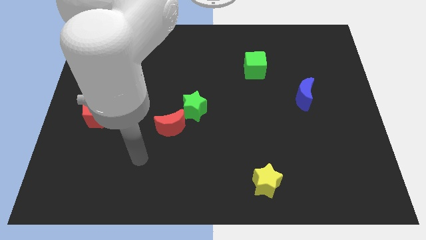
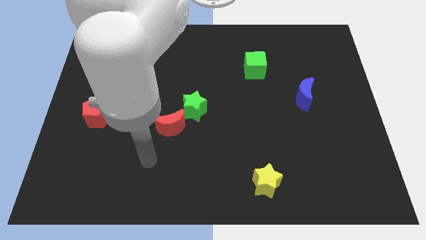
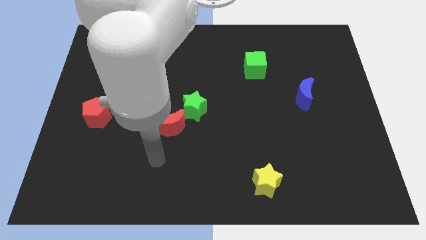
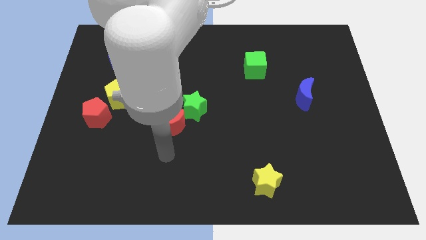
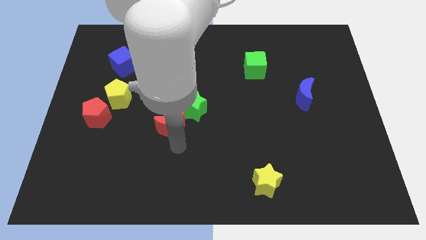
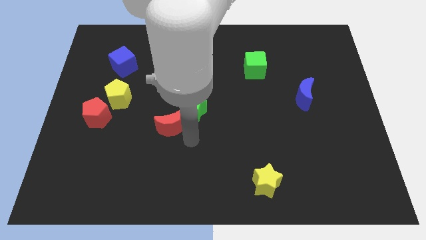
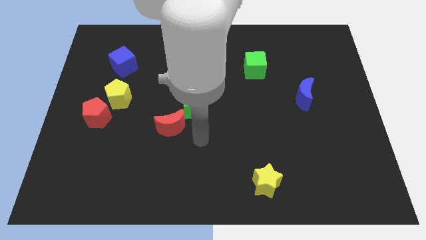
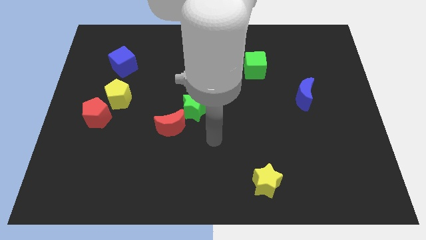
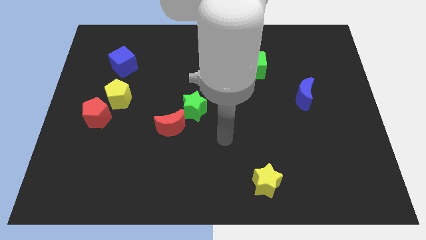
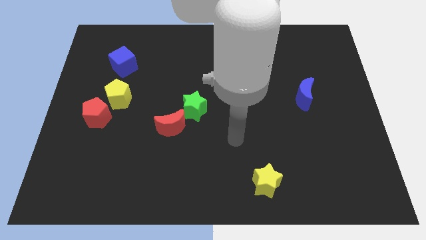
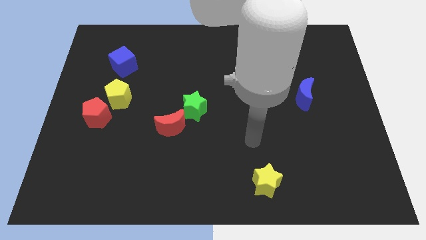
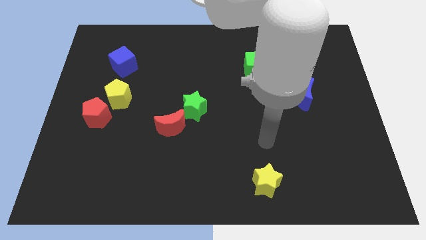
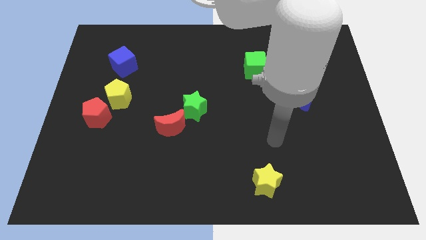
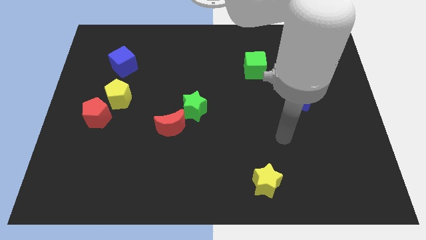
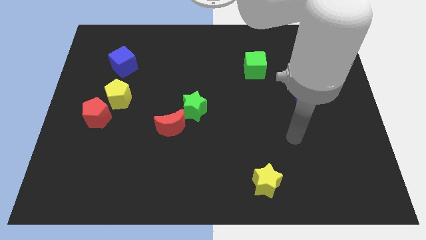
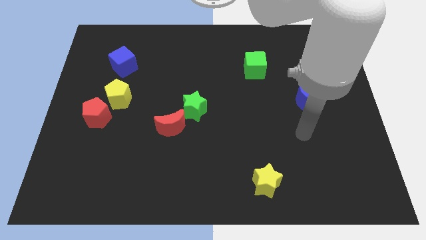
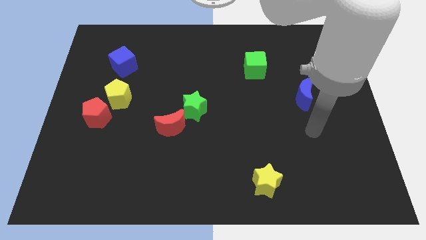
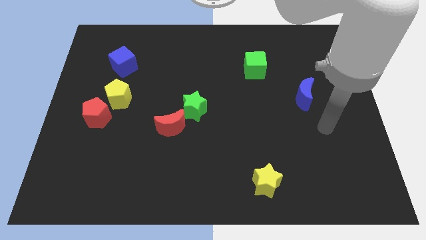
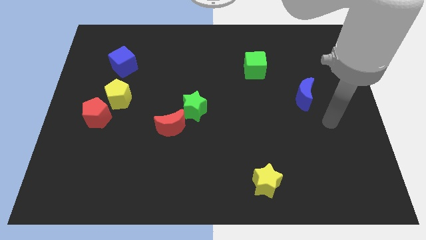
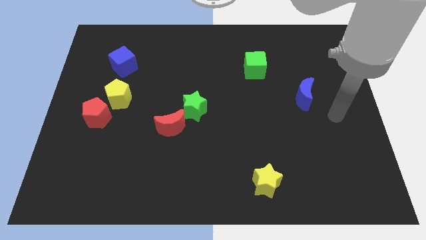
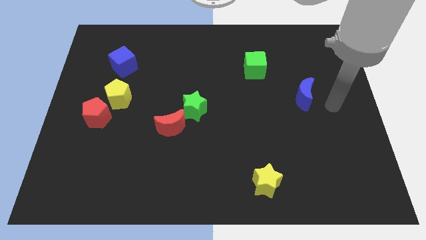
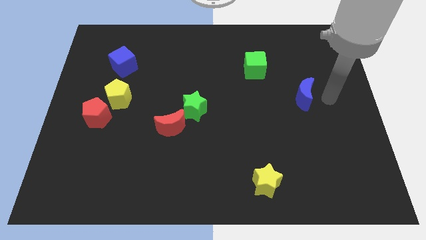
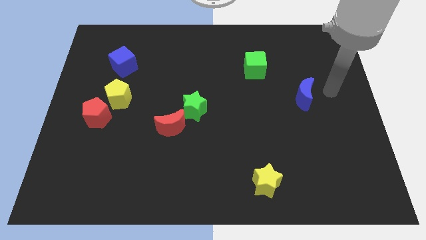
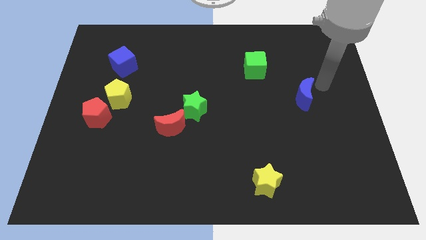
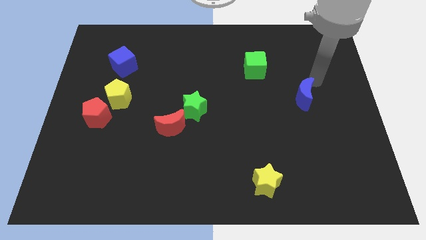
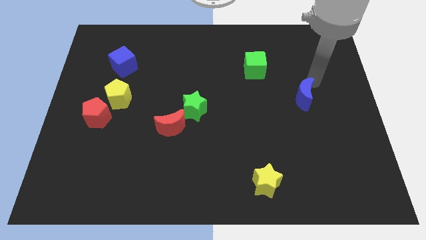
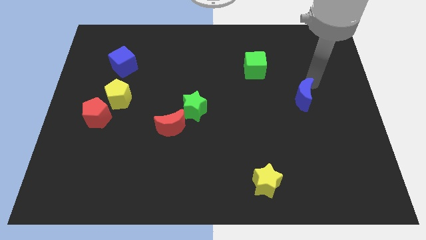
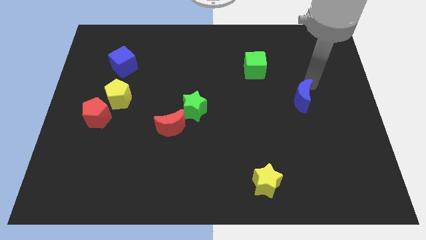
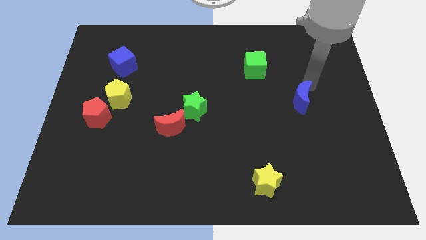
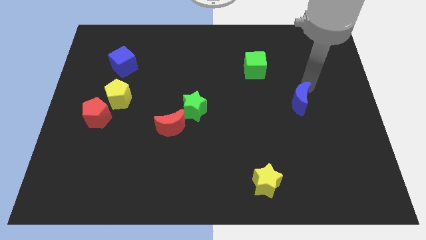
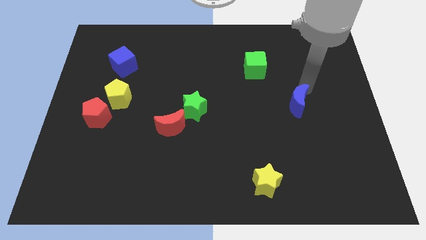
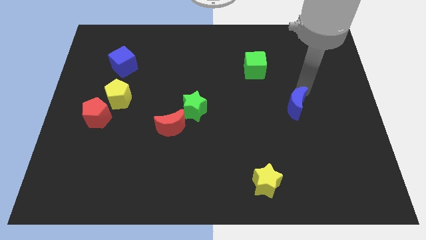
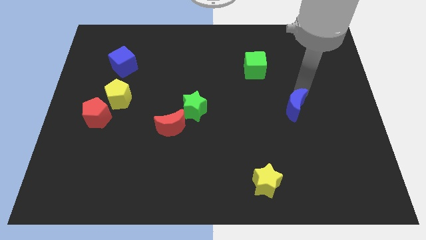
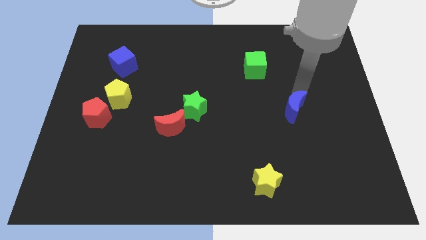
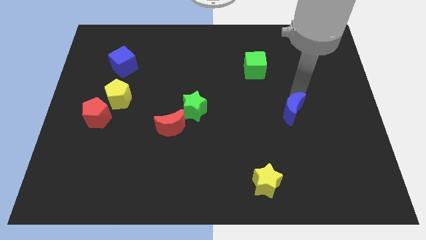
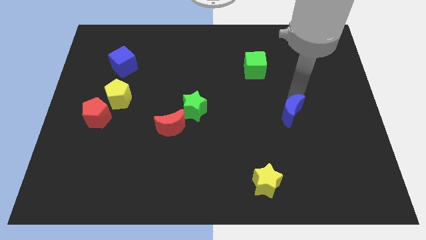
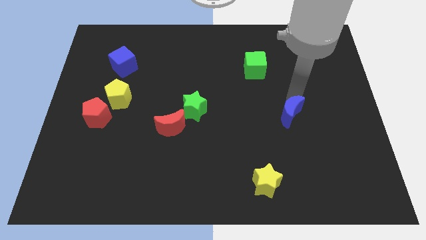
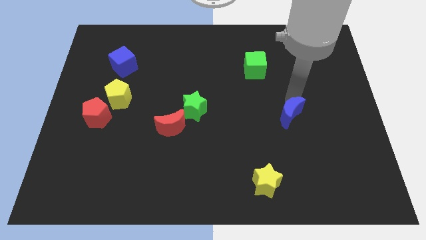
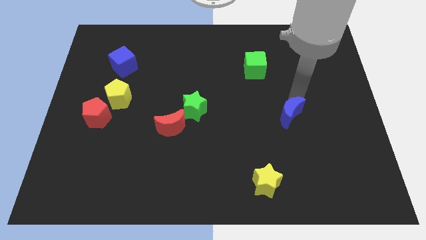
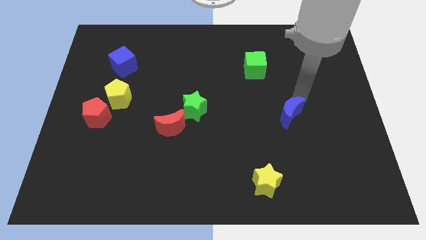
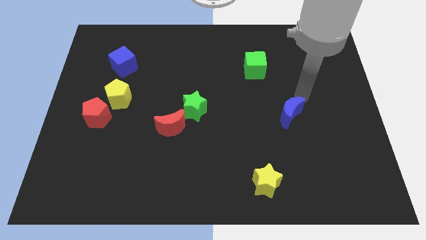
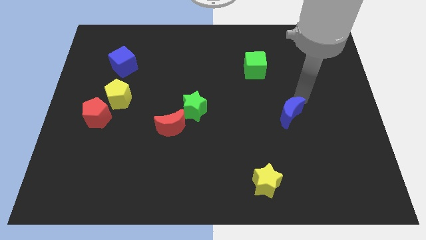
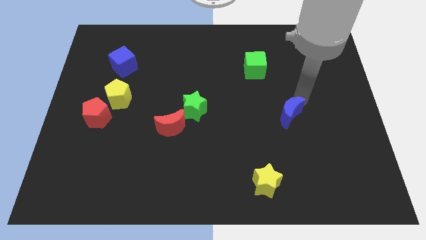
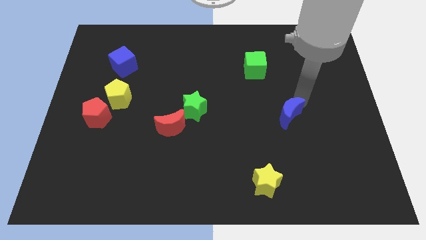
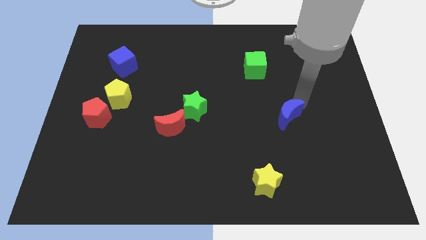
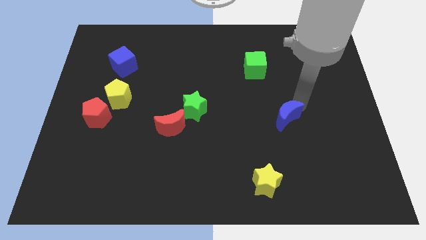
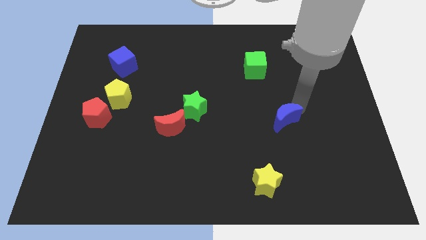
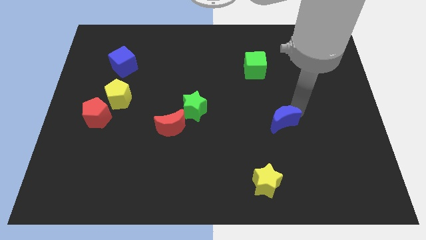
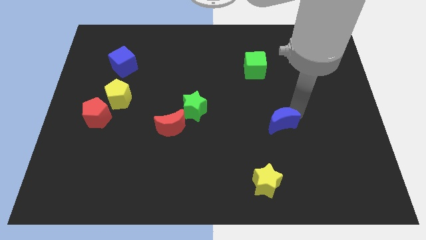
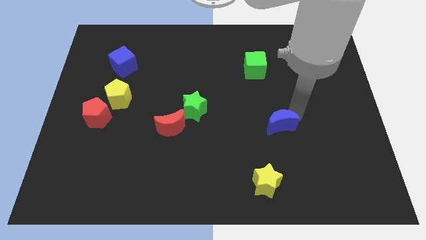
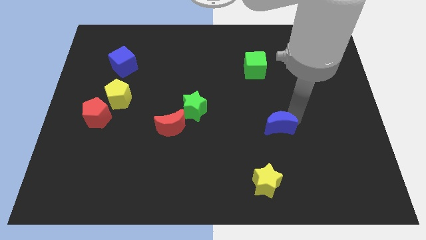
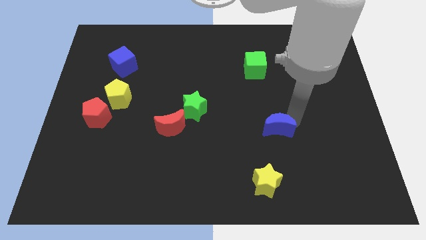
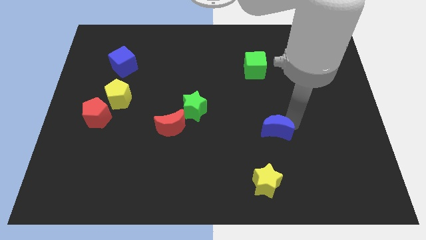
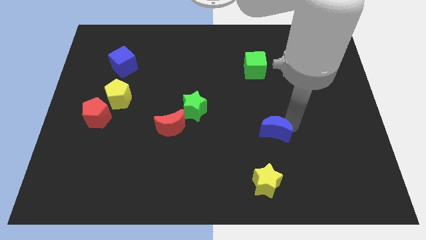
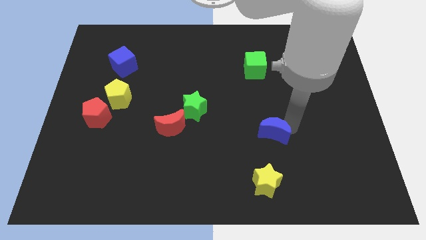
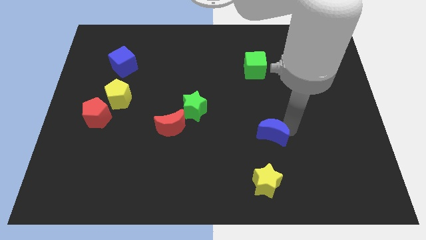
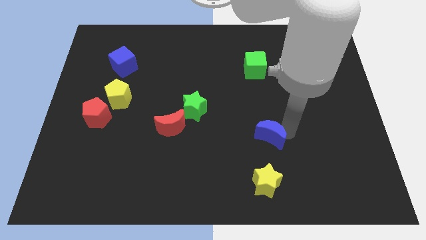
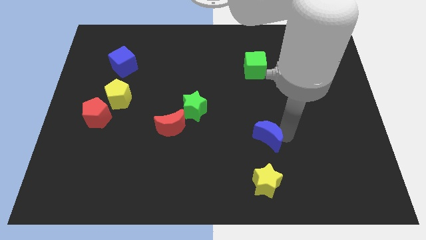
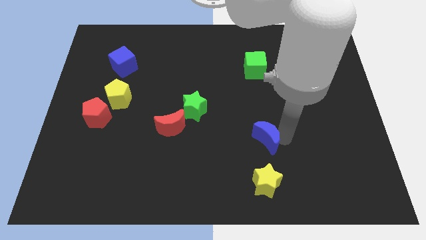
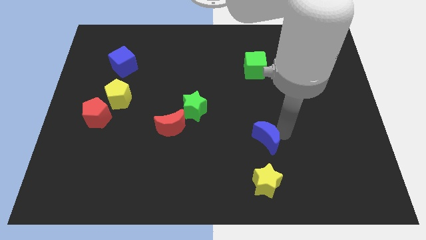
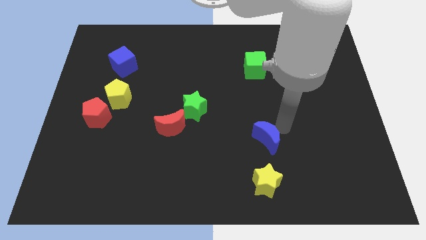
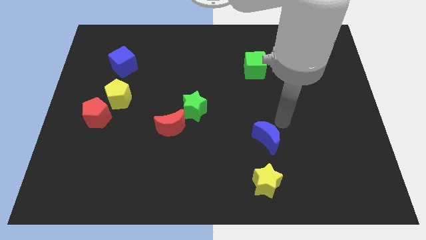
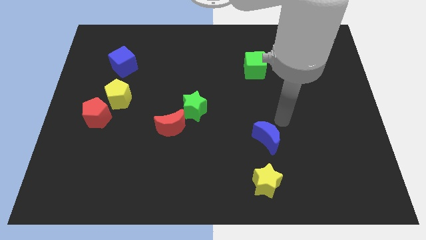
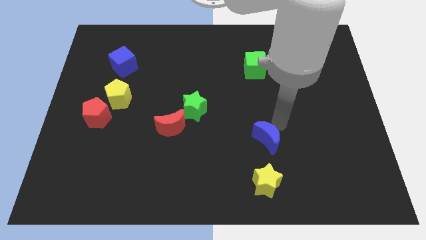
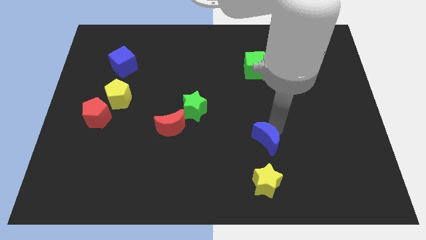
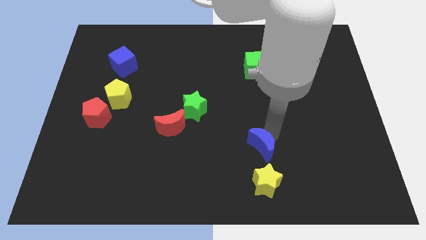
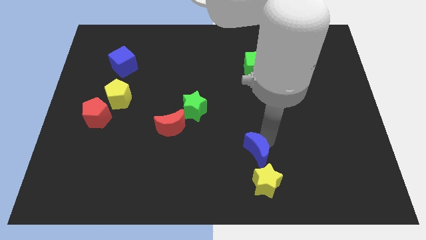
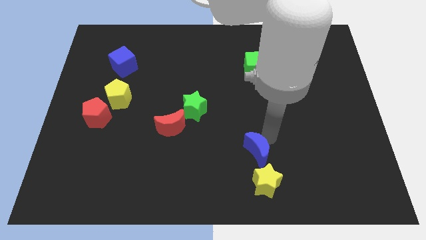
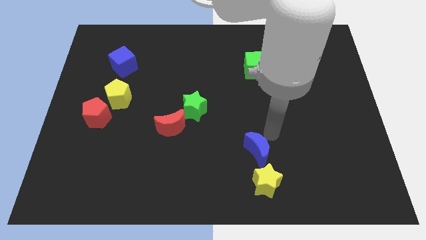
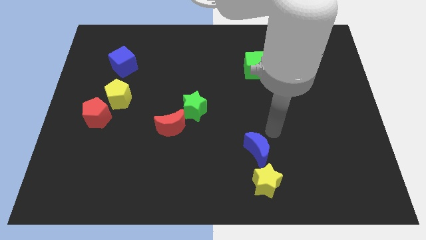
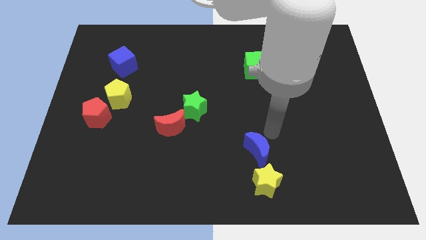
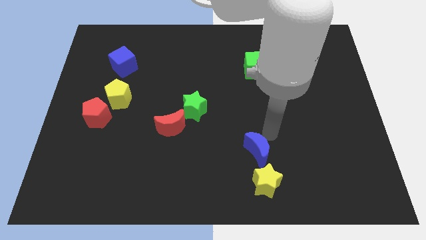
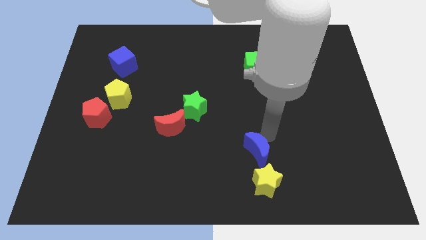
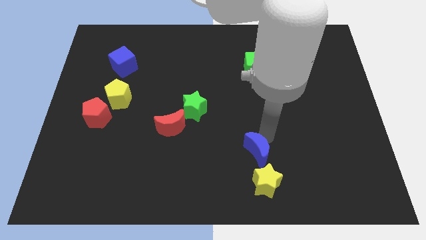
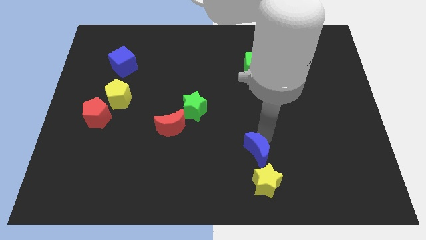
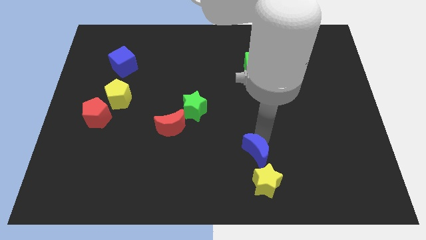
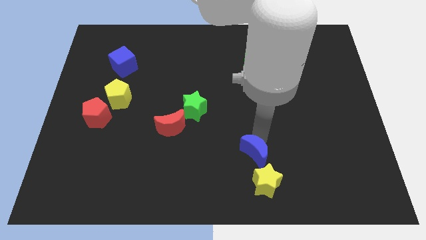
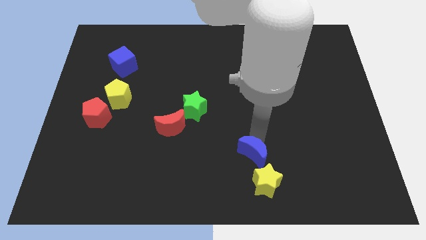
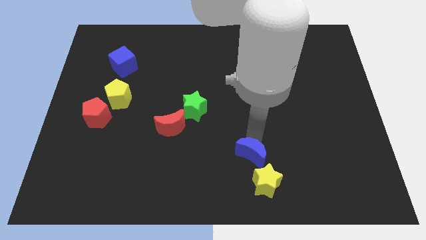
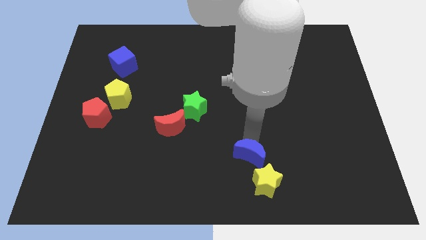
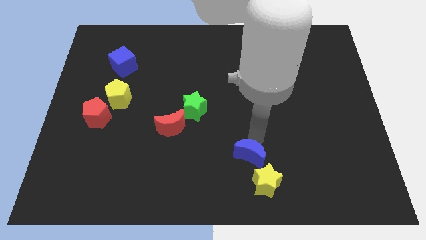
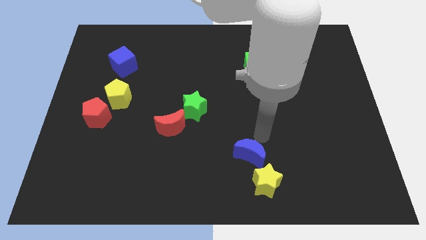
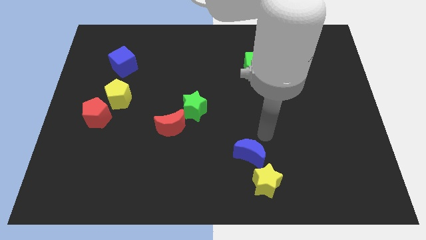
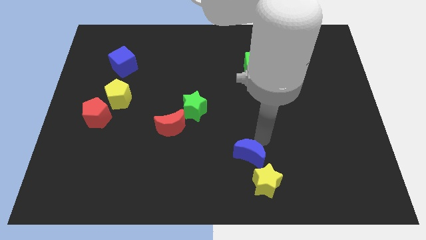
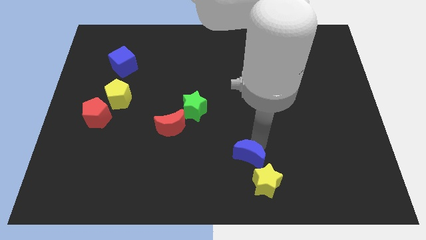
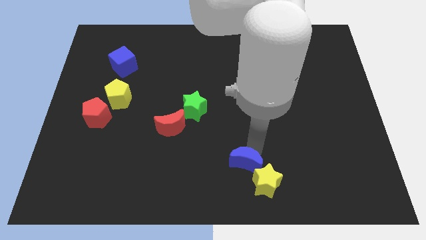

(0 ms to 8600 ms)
push the blue moon to the bottom
